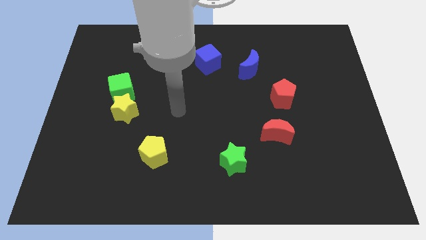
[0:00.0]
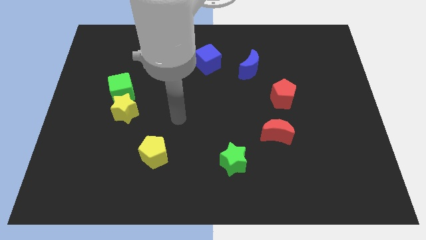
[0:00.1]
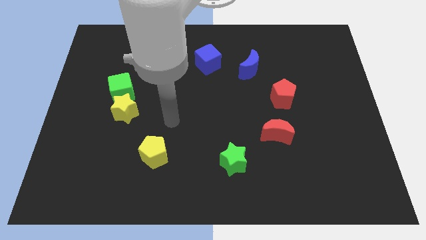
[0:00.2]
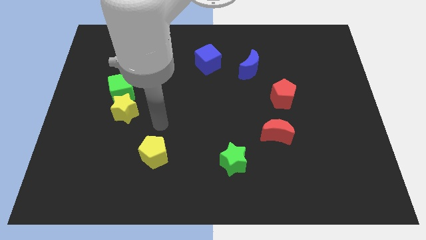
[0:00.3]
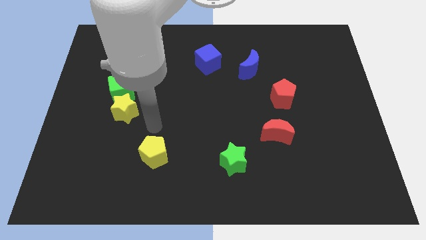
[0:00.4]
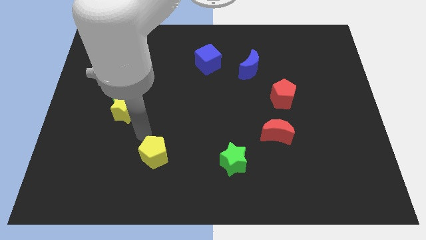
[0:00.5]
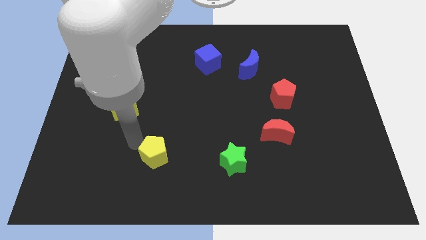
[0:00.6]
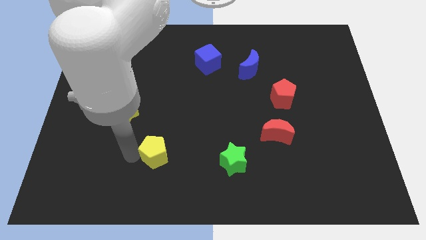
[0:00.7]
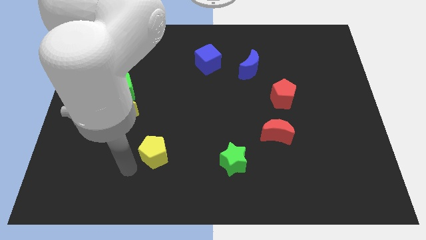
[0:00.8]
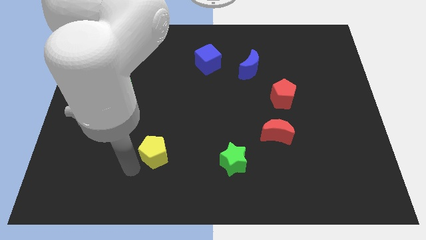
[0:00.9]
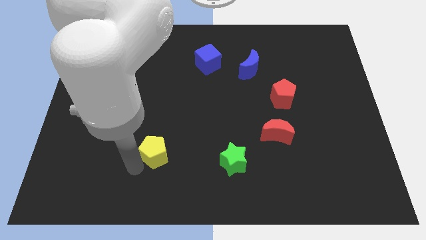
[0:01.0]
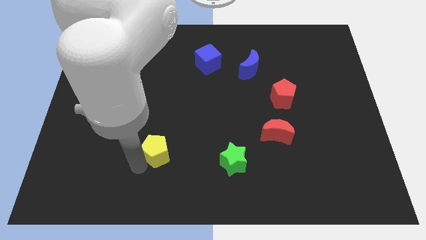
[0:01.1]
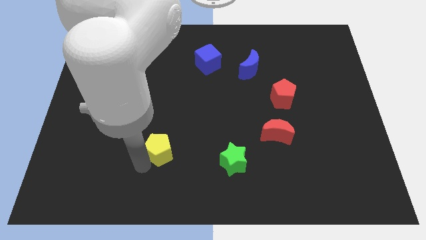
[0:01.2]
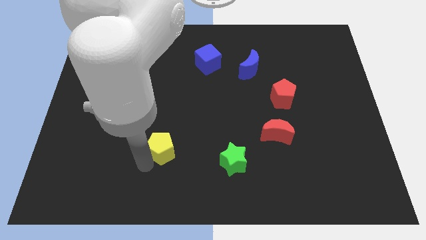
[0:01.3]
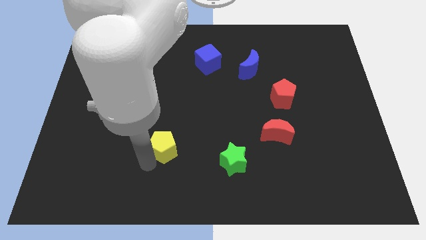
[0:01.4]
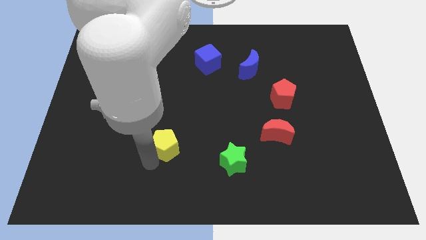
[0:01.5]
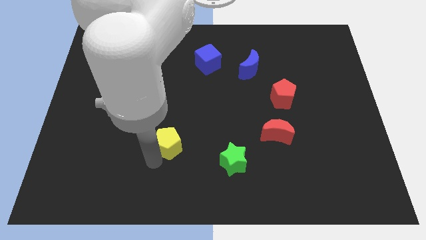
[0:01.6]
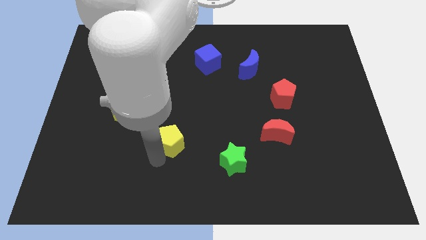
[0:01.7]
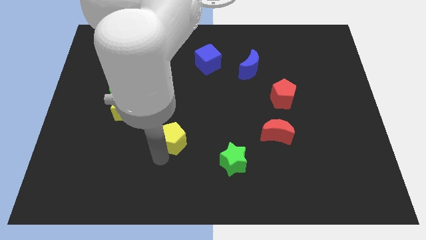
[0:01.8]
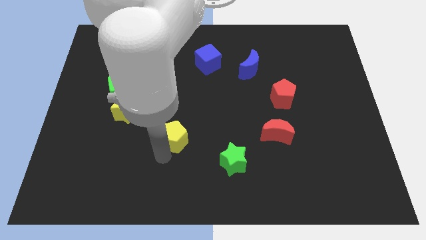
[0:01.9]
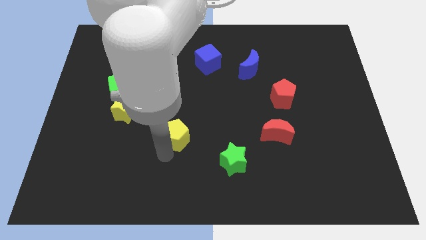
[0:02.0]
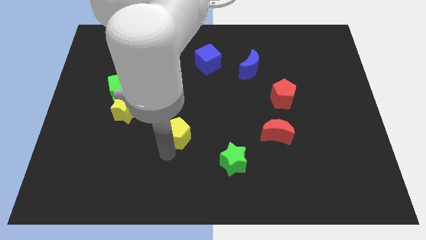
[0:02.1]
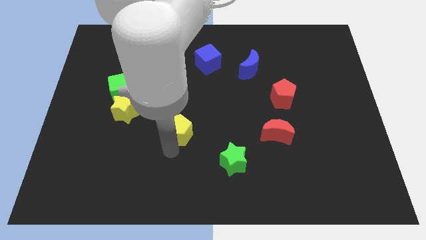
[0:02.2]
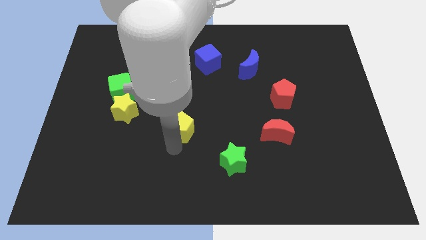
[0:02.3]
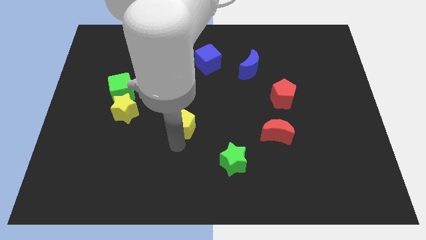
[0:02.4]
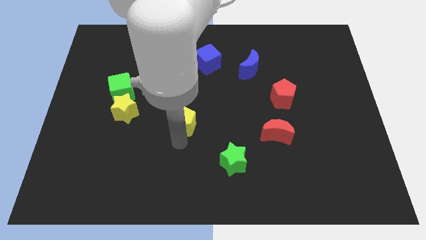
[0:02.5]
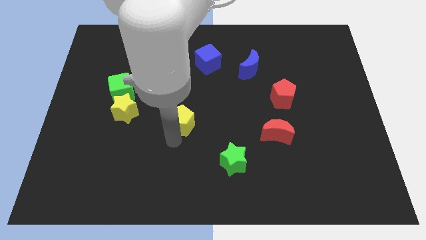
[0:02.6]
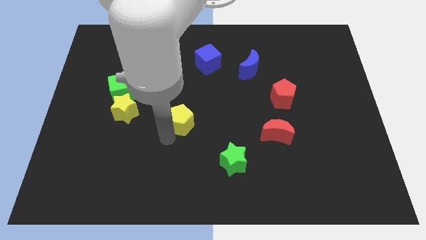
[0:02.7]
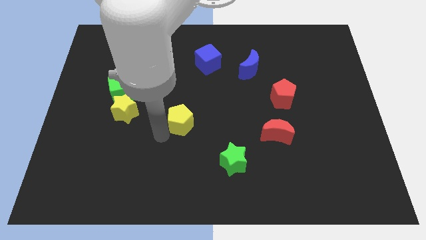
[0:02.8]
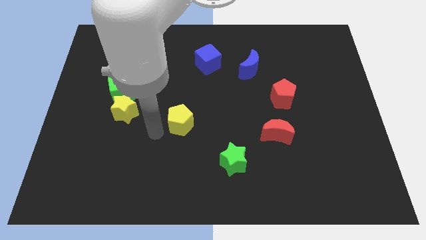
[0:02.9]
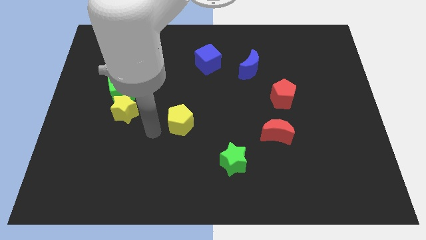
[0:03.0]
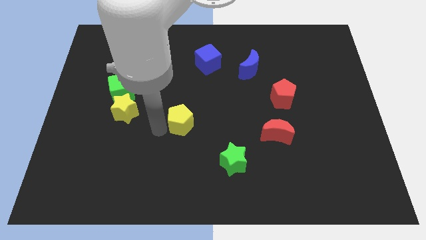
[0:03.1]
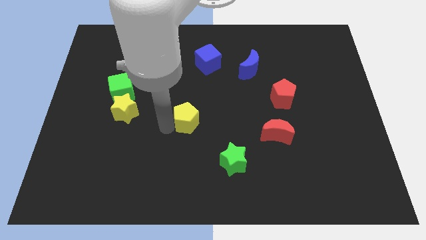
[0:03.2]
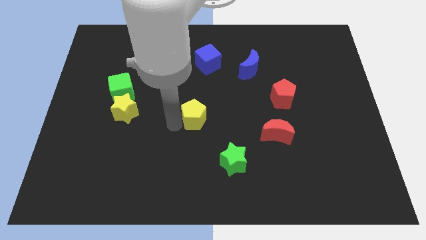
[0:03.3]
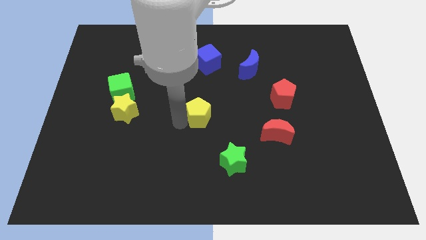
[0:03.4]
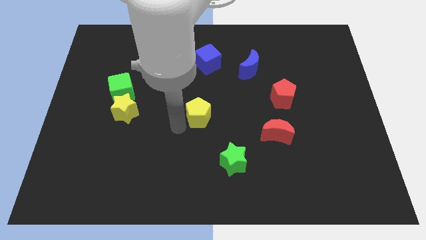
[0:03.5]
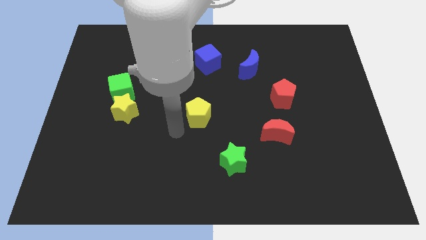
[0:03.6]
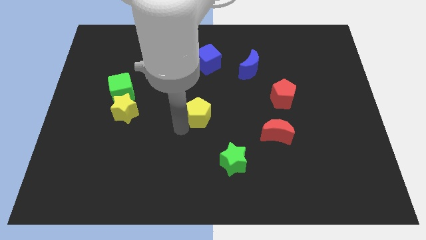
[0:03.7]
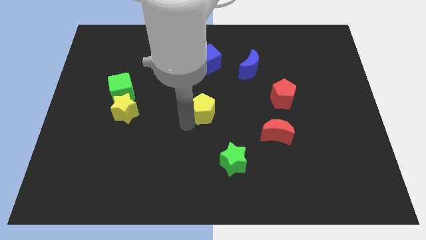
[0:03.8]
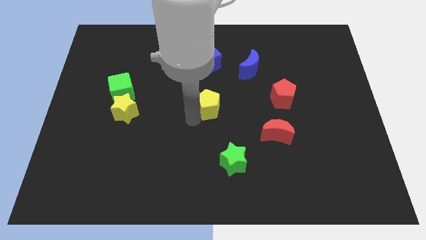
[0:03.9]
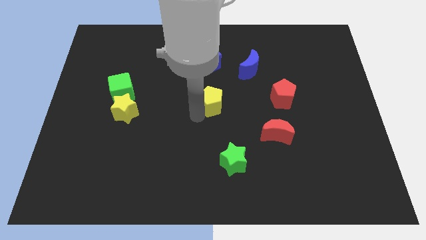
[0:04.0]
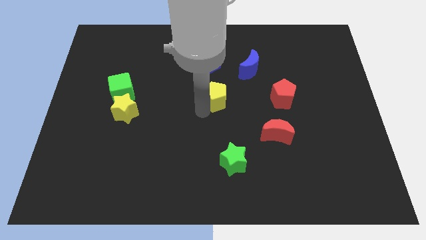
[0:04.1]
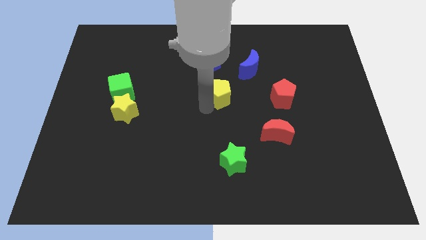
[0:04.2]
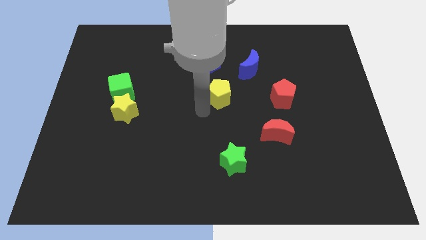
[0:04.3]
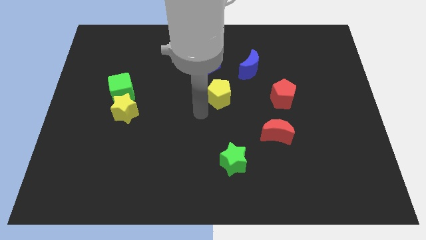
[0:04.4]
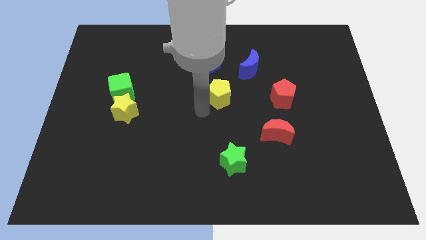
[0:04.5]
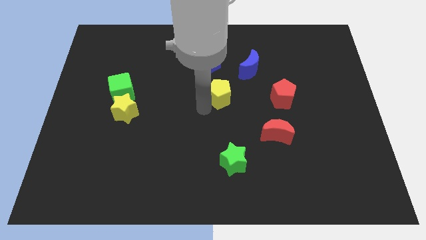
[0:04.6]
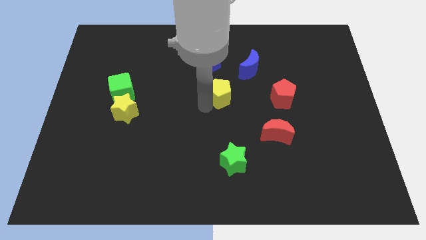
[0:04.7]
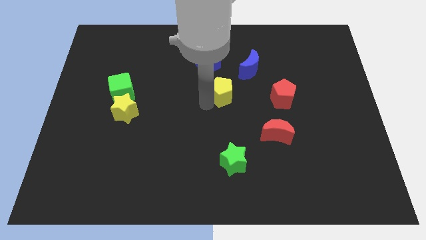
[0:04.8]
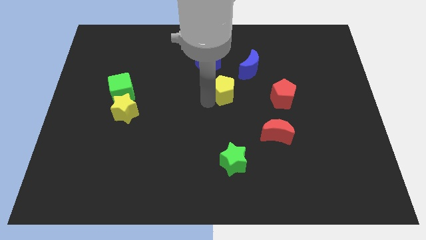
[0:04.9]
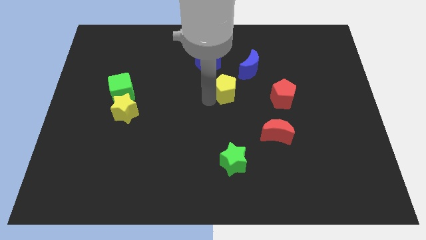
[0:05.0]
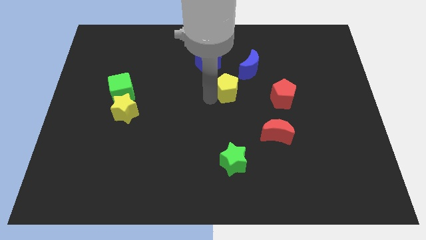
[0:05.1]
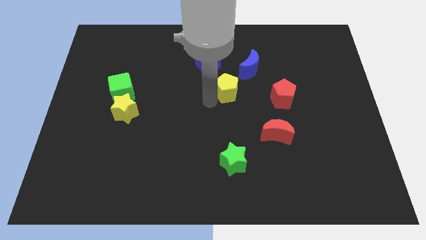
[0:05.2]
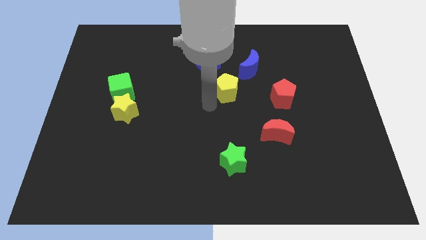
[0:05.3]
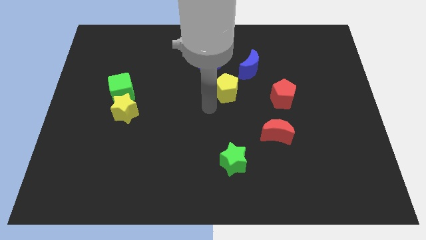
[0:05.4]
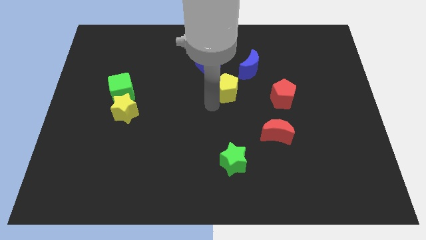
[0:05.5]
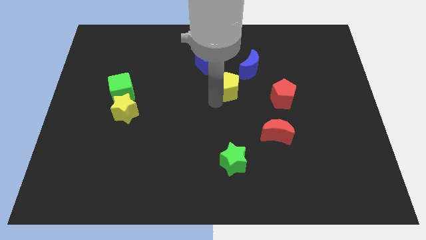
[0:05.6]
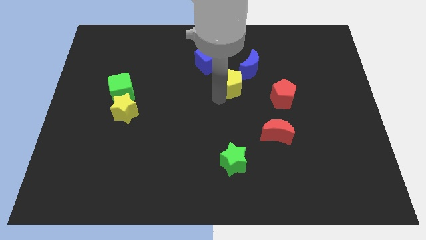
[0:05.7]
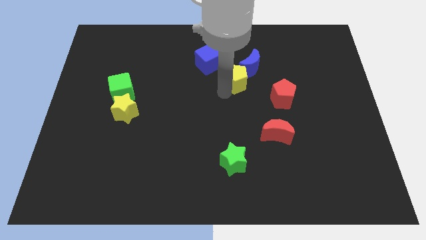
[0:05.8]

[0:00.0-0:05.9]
push the yellow pentagon close to the blue moon

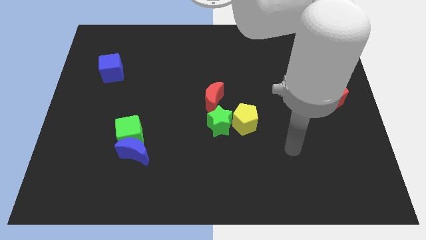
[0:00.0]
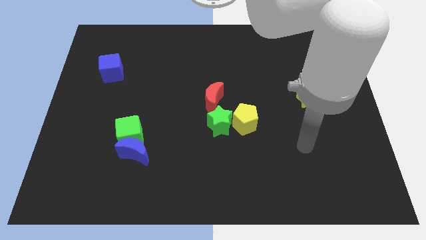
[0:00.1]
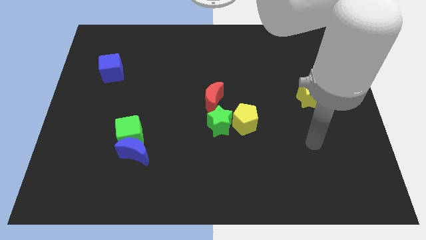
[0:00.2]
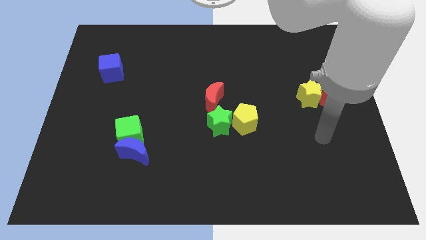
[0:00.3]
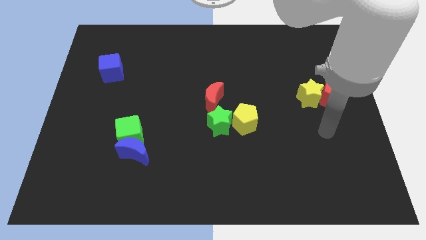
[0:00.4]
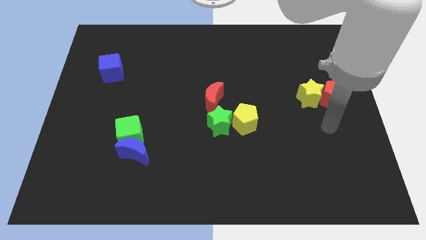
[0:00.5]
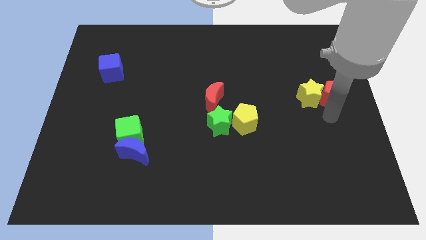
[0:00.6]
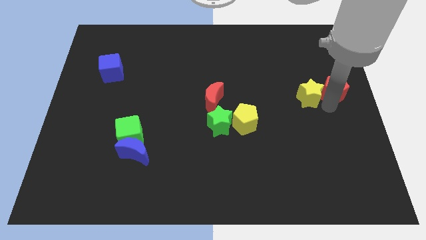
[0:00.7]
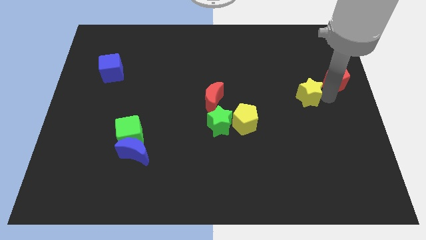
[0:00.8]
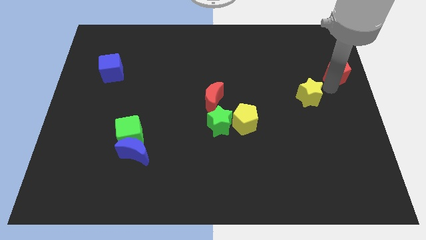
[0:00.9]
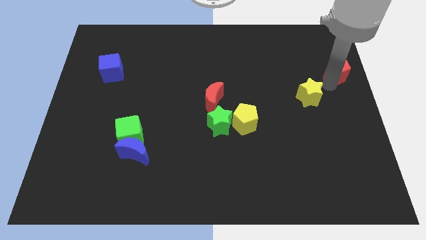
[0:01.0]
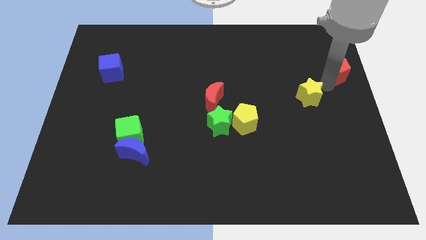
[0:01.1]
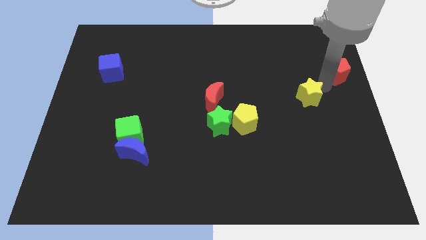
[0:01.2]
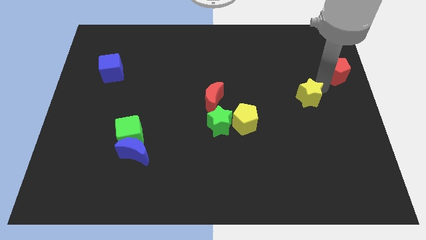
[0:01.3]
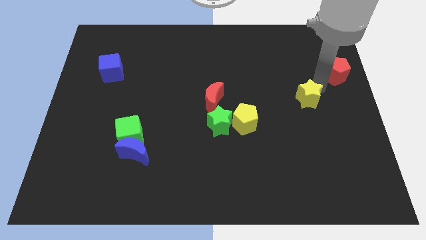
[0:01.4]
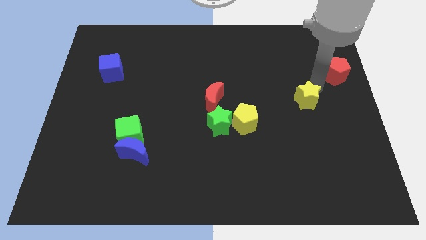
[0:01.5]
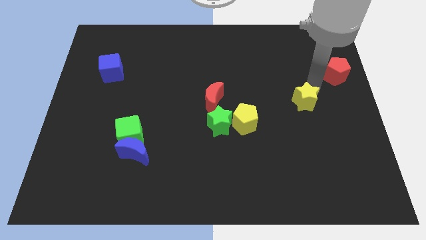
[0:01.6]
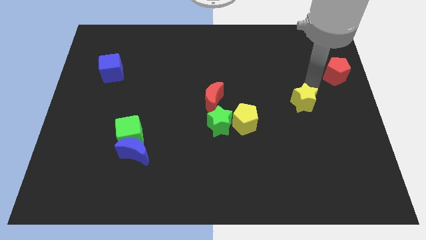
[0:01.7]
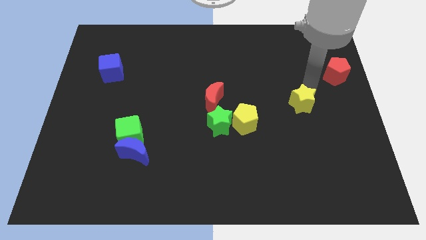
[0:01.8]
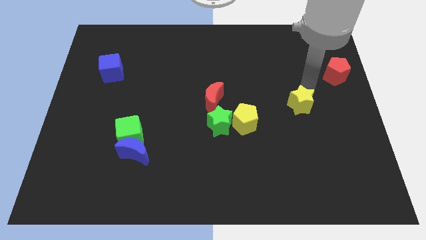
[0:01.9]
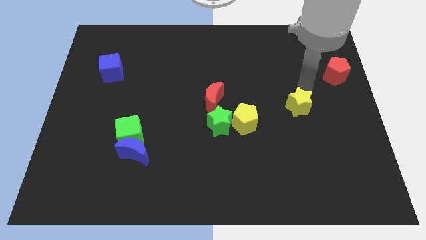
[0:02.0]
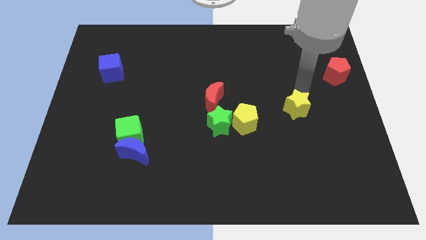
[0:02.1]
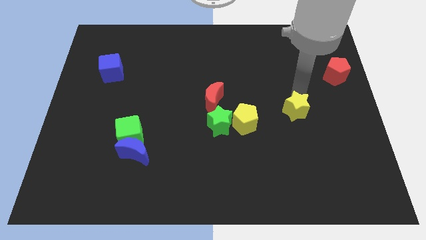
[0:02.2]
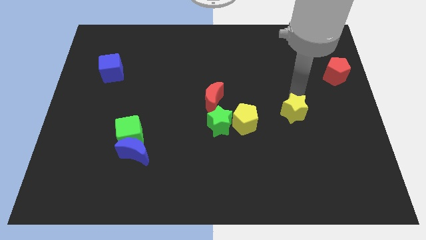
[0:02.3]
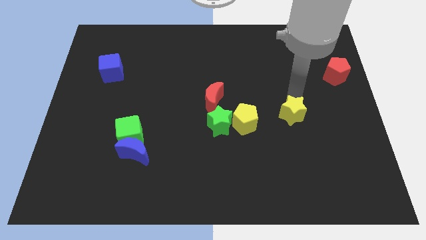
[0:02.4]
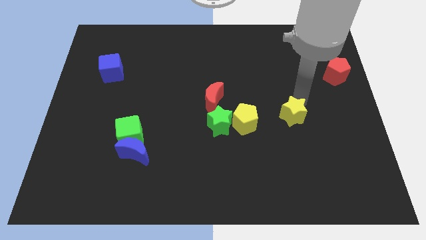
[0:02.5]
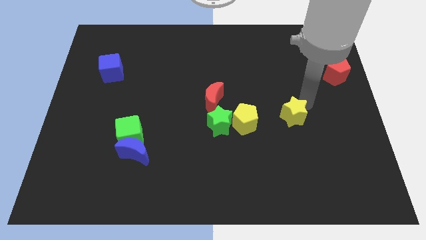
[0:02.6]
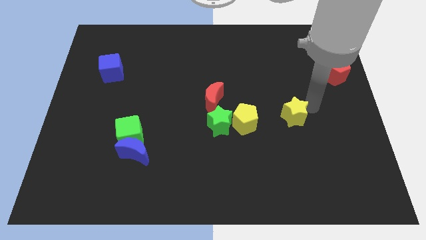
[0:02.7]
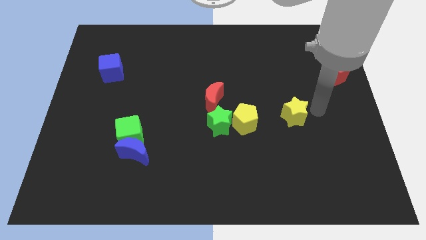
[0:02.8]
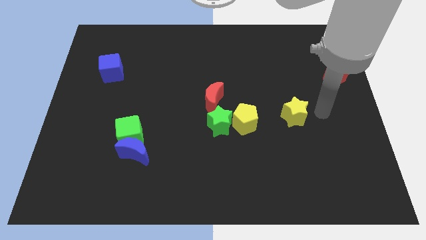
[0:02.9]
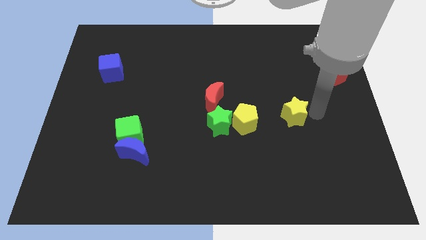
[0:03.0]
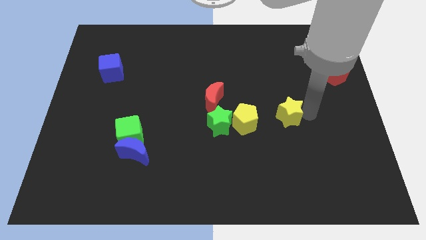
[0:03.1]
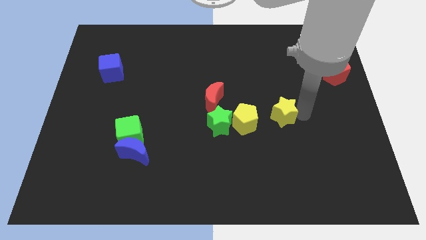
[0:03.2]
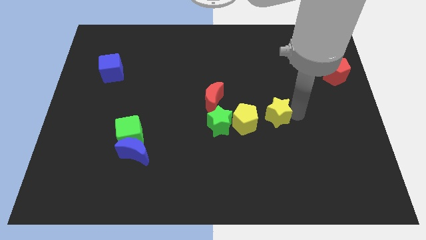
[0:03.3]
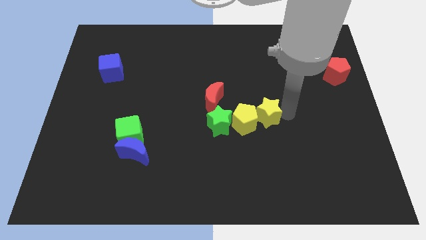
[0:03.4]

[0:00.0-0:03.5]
slide the yellow star to the yellow pentagon
